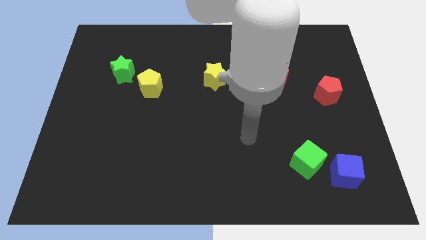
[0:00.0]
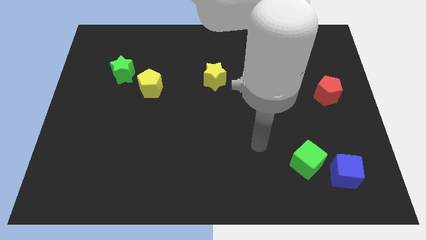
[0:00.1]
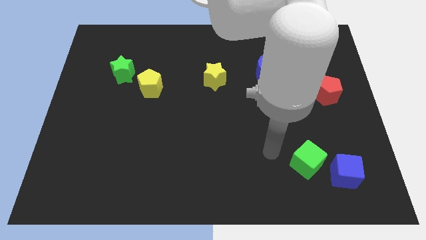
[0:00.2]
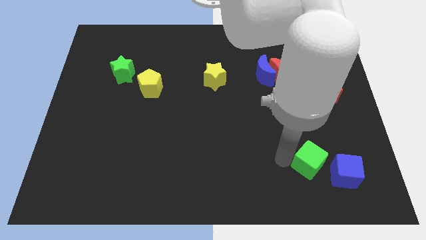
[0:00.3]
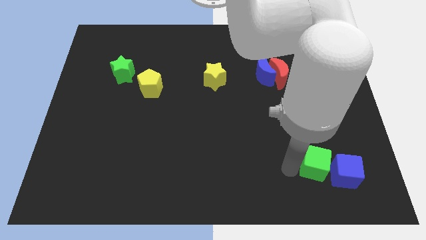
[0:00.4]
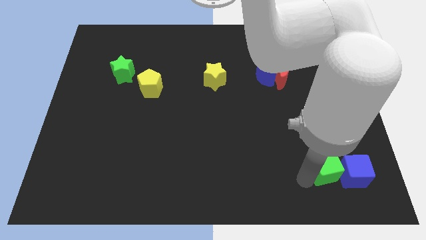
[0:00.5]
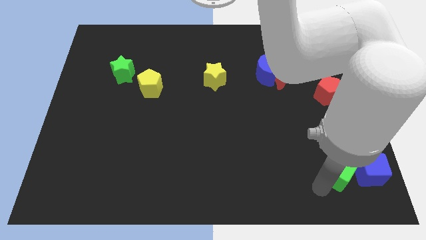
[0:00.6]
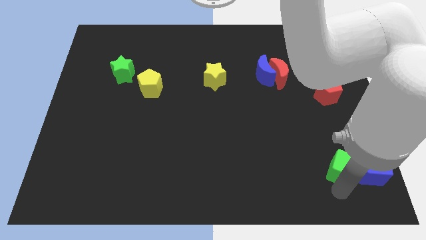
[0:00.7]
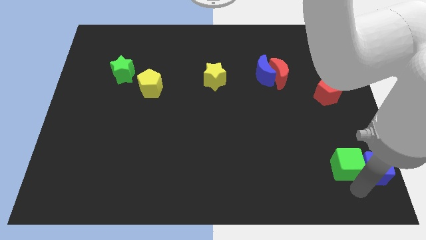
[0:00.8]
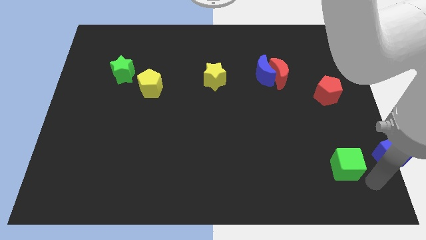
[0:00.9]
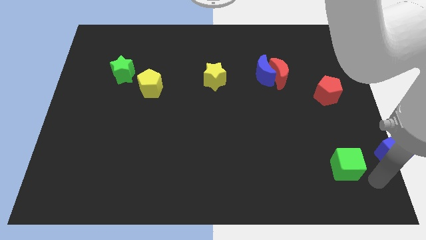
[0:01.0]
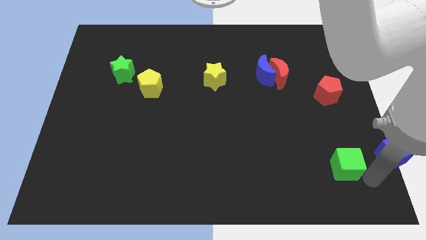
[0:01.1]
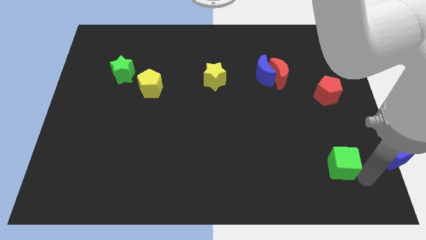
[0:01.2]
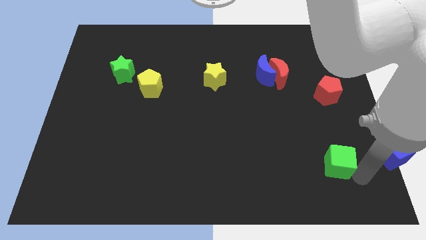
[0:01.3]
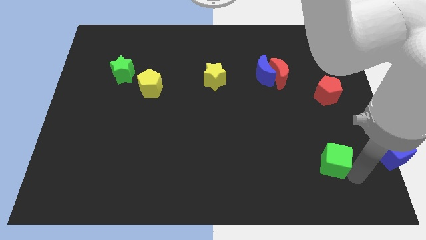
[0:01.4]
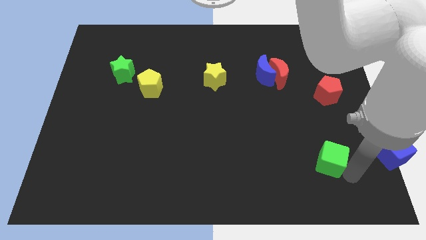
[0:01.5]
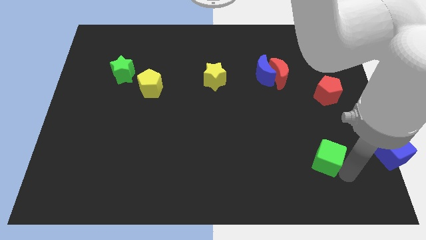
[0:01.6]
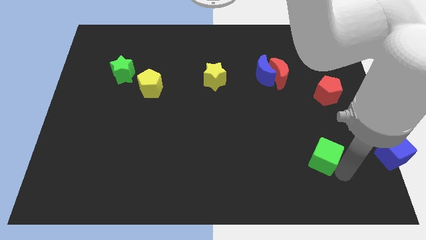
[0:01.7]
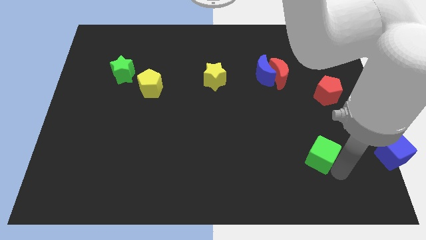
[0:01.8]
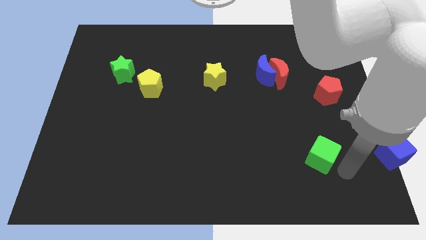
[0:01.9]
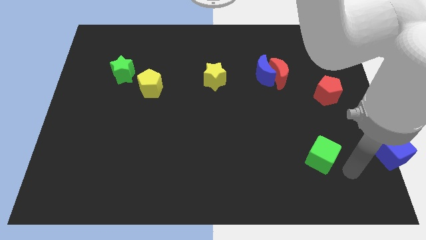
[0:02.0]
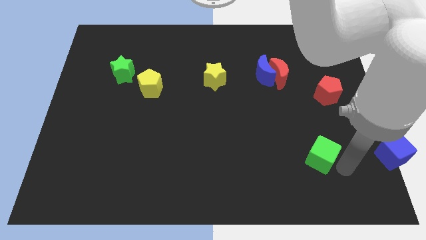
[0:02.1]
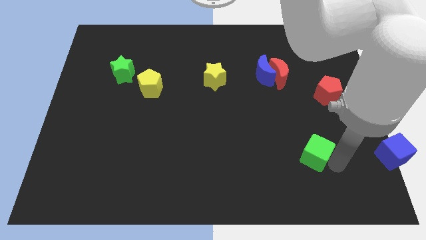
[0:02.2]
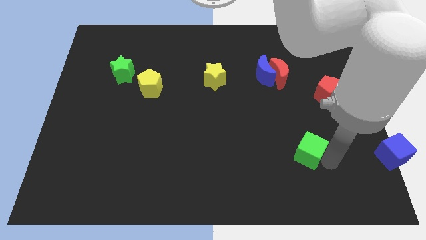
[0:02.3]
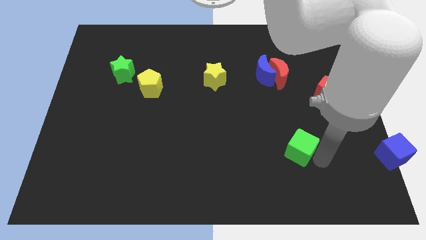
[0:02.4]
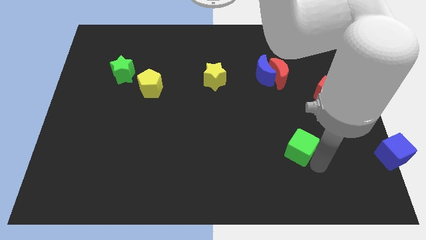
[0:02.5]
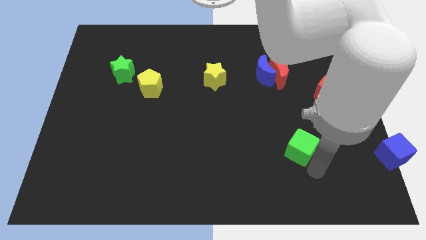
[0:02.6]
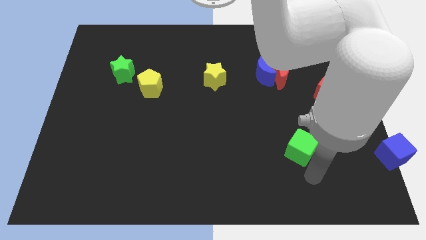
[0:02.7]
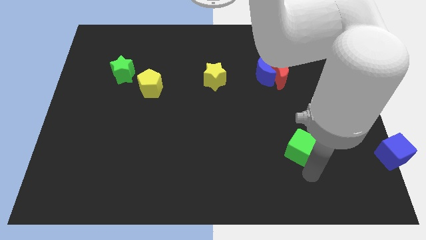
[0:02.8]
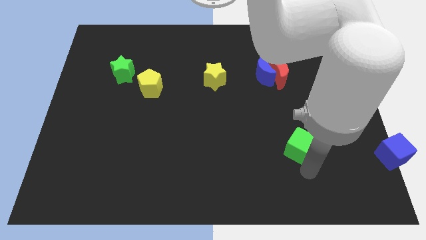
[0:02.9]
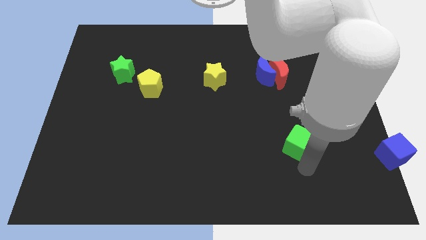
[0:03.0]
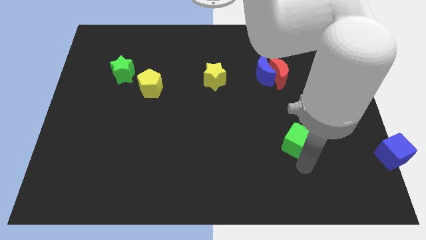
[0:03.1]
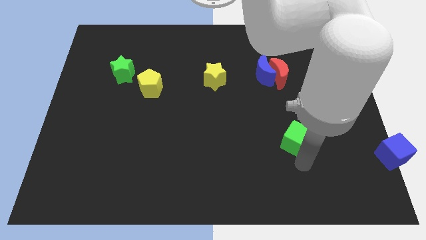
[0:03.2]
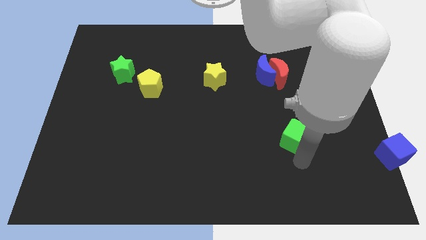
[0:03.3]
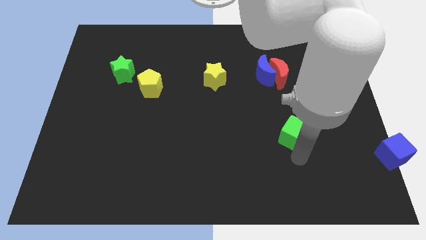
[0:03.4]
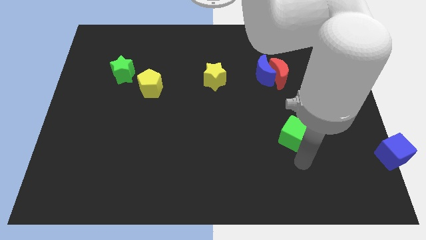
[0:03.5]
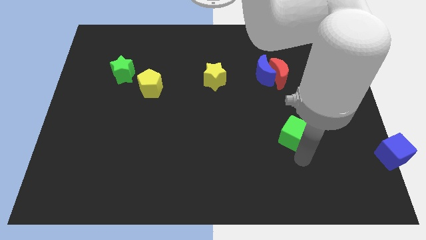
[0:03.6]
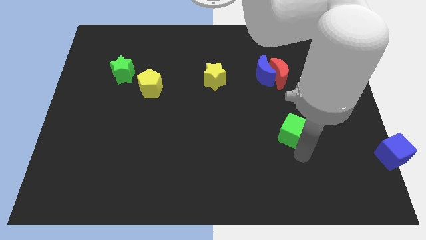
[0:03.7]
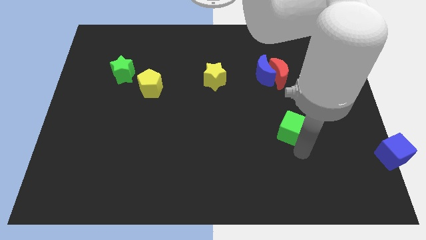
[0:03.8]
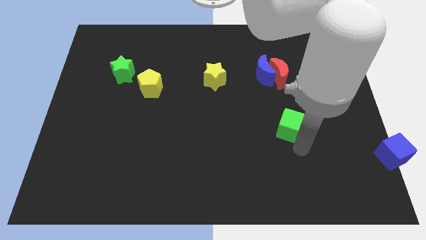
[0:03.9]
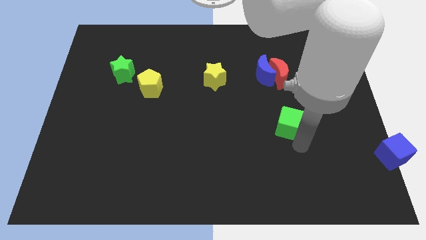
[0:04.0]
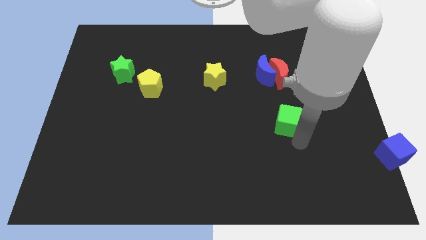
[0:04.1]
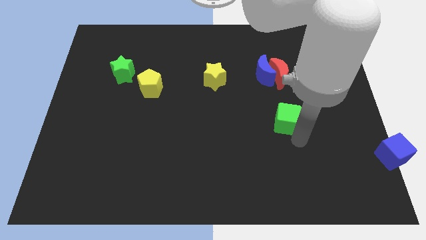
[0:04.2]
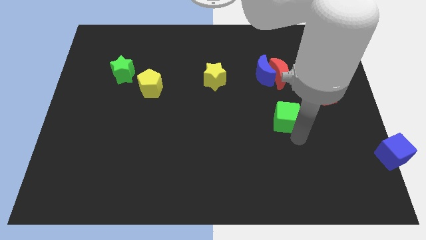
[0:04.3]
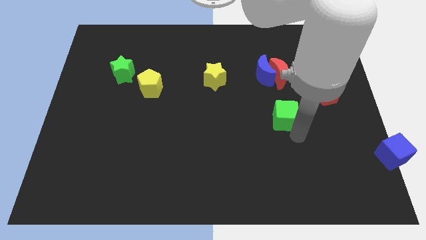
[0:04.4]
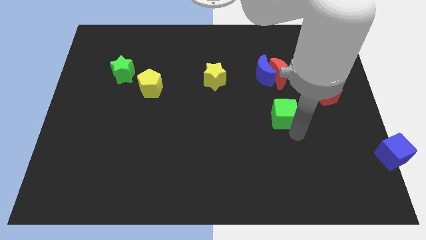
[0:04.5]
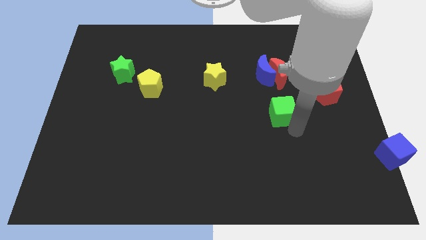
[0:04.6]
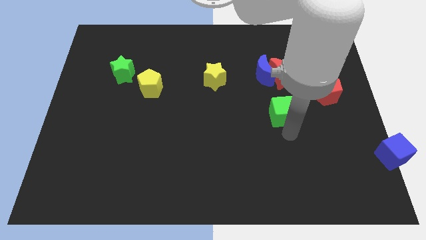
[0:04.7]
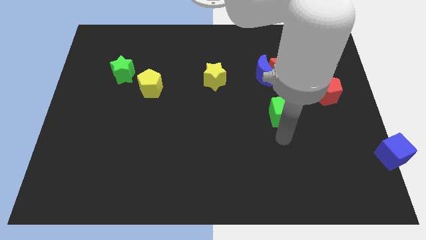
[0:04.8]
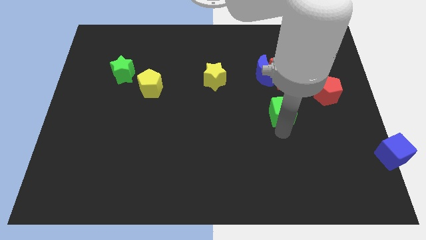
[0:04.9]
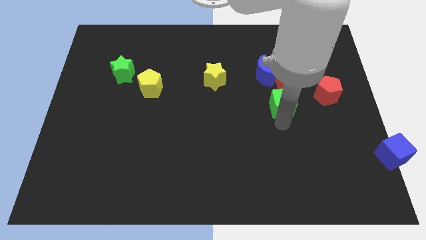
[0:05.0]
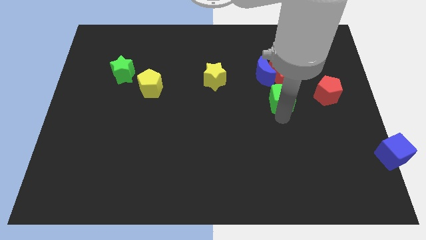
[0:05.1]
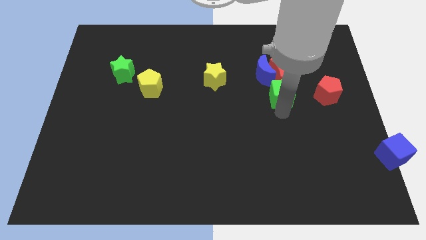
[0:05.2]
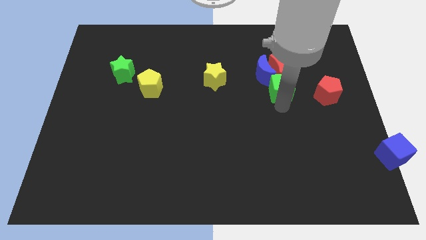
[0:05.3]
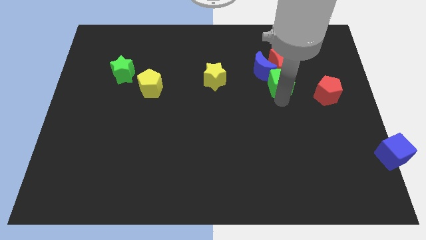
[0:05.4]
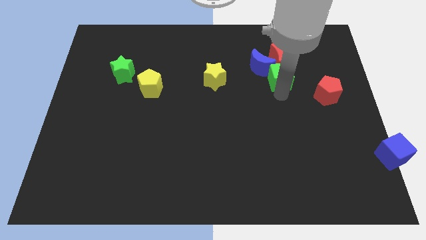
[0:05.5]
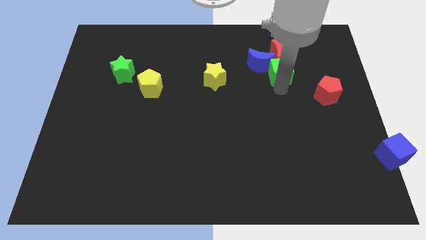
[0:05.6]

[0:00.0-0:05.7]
push the green cube close to the red moon
